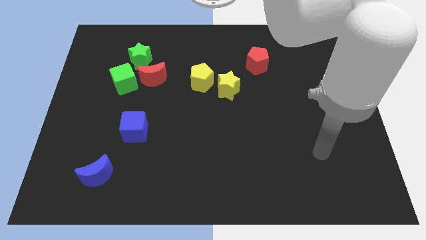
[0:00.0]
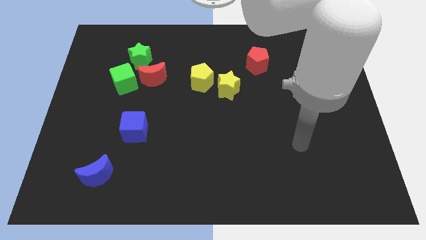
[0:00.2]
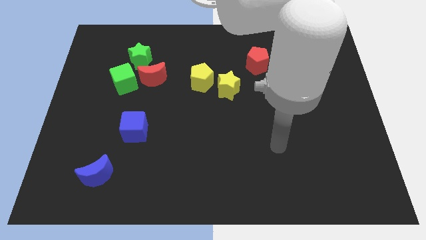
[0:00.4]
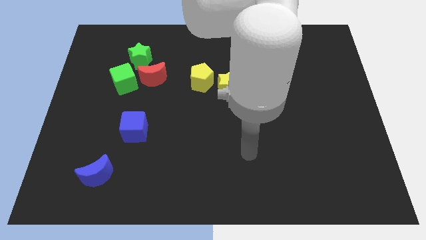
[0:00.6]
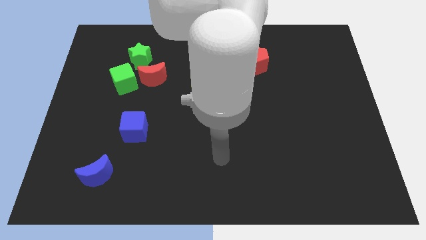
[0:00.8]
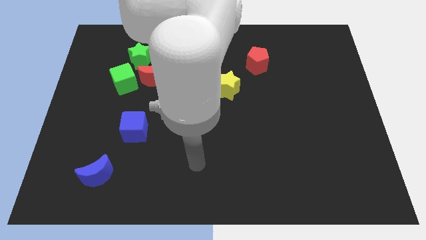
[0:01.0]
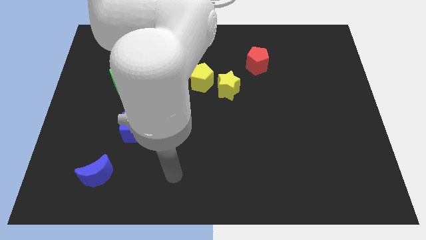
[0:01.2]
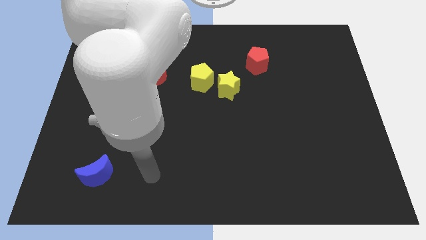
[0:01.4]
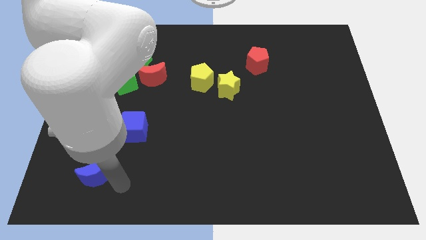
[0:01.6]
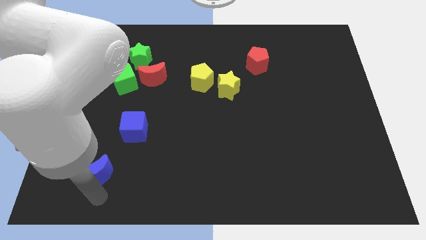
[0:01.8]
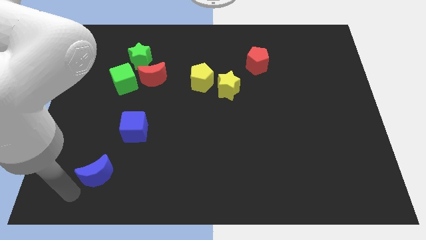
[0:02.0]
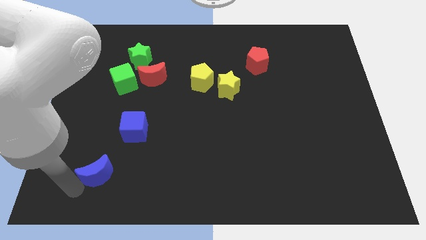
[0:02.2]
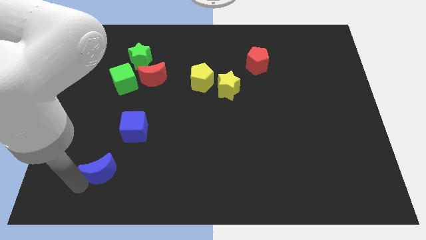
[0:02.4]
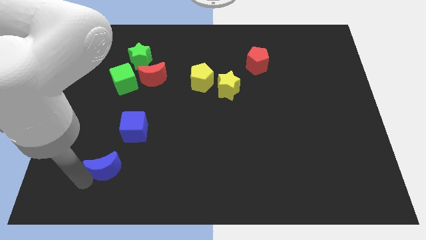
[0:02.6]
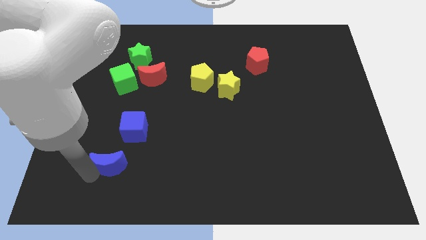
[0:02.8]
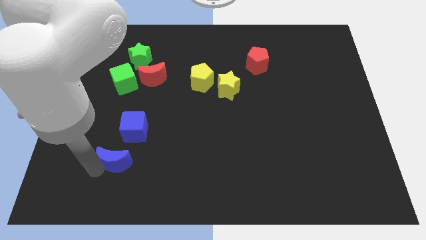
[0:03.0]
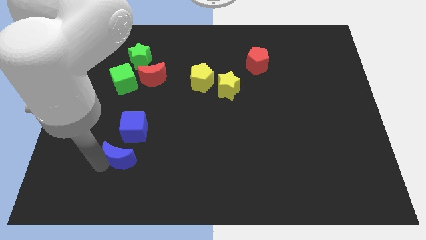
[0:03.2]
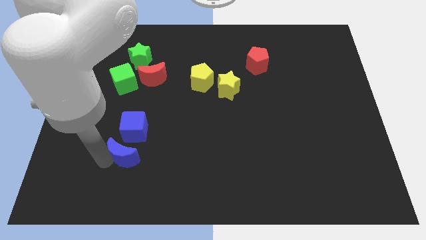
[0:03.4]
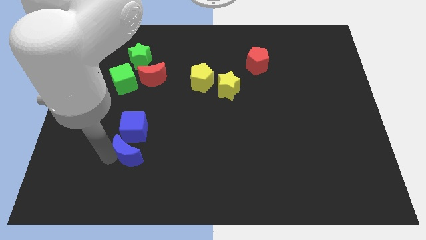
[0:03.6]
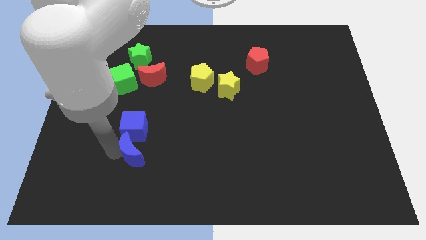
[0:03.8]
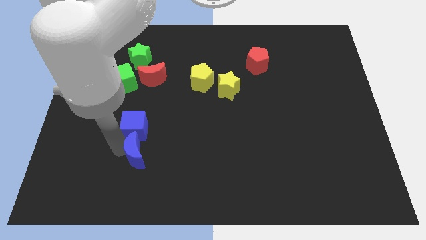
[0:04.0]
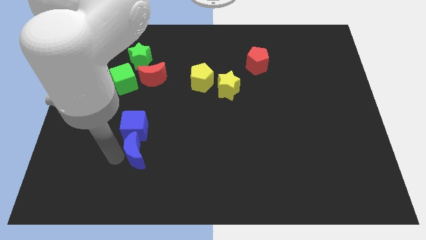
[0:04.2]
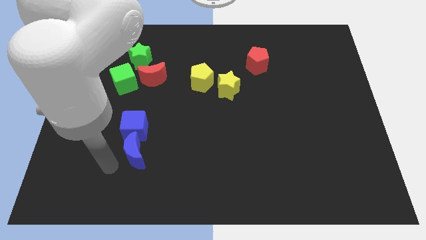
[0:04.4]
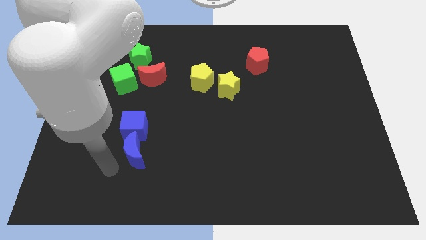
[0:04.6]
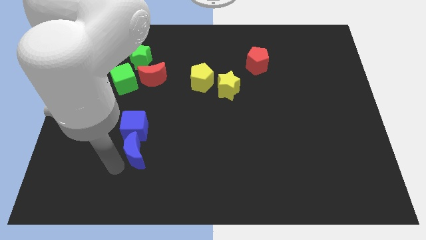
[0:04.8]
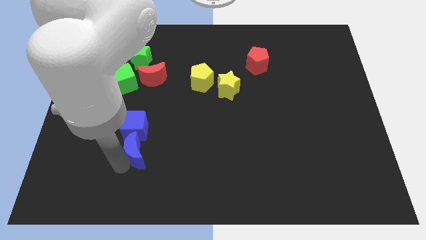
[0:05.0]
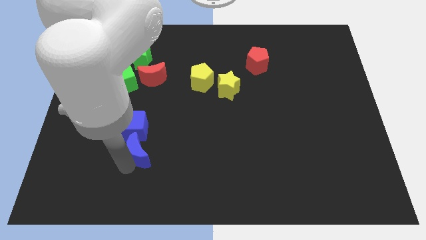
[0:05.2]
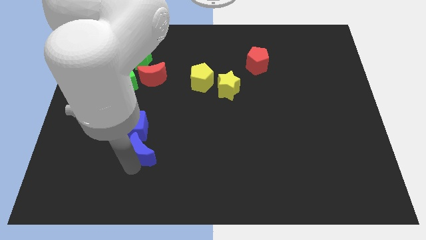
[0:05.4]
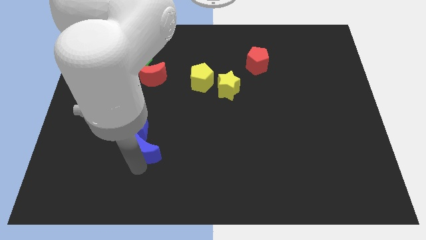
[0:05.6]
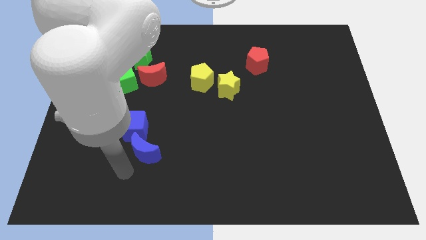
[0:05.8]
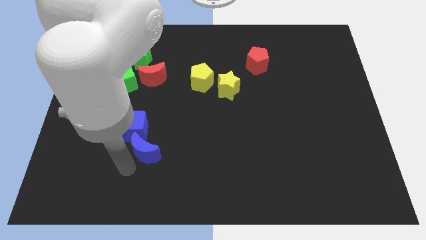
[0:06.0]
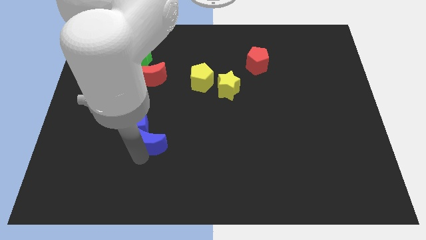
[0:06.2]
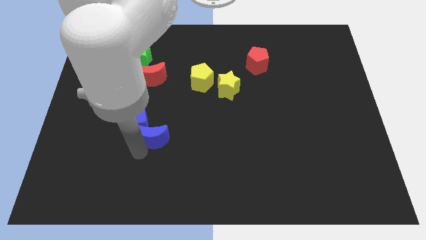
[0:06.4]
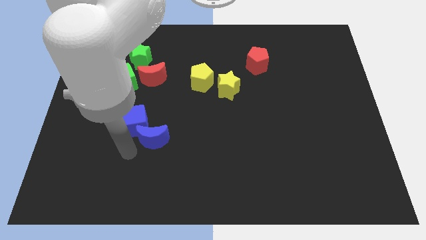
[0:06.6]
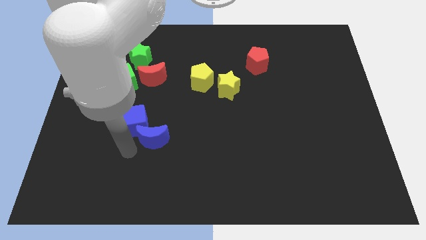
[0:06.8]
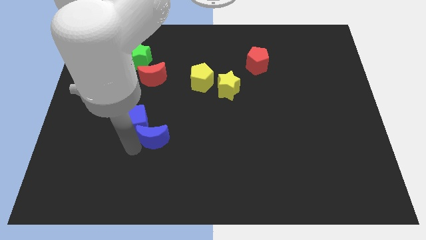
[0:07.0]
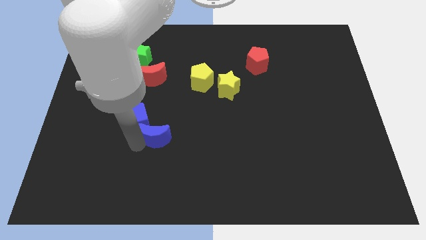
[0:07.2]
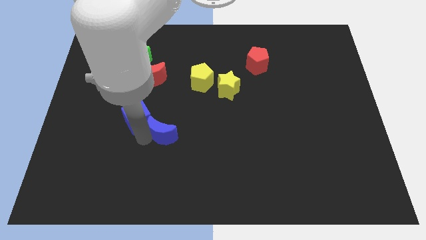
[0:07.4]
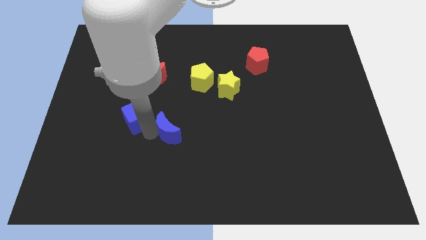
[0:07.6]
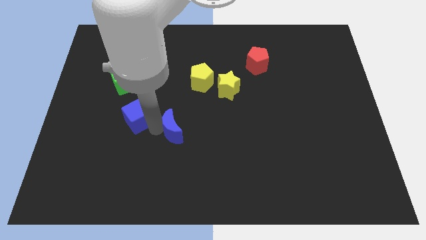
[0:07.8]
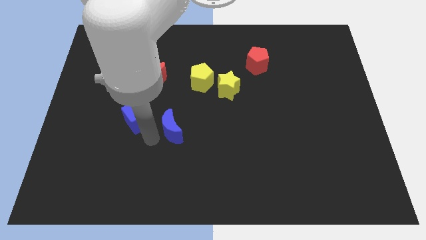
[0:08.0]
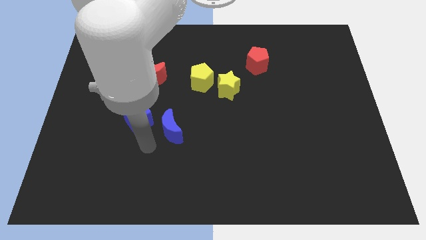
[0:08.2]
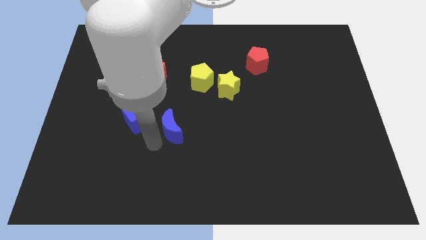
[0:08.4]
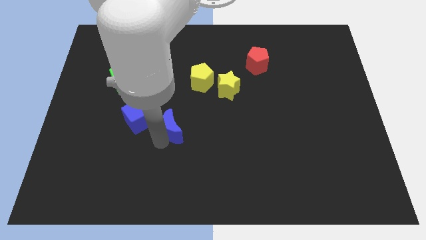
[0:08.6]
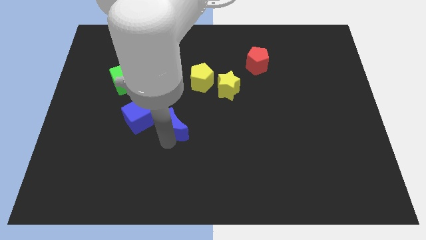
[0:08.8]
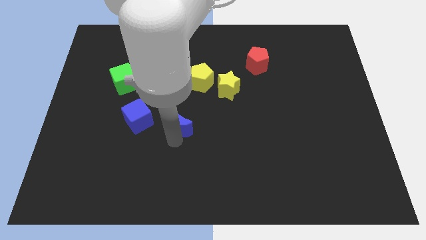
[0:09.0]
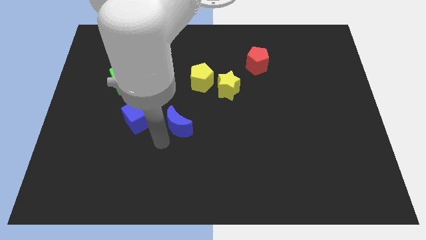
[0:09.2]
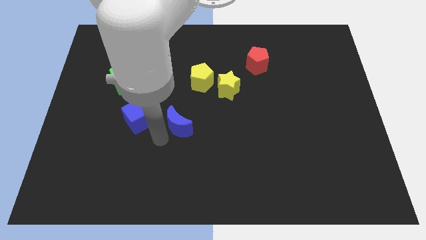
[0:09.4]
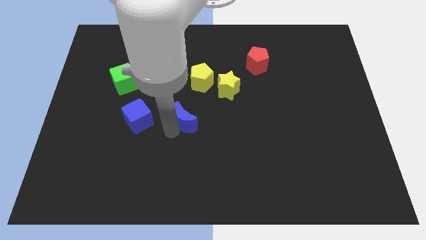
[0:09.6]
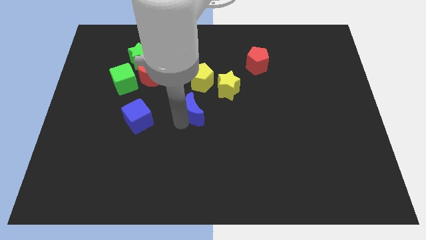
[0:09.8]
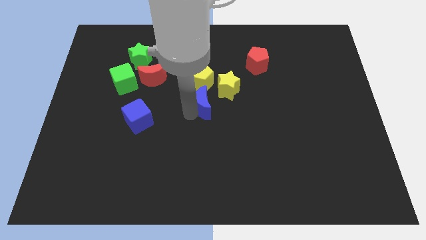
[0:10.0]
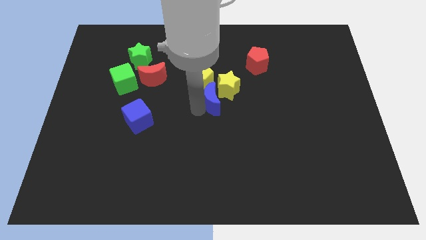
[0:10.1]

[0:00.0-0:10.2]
put the blue moon to the yellow star

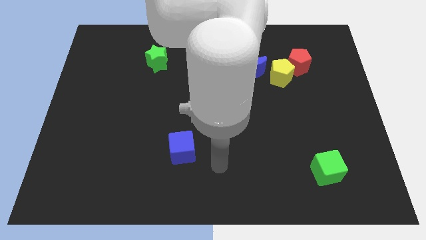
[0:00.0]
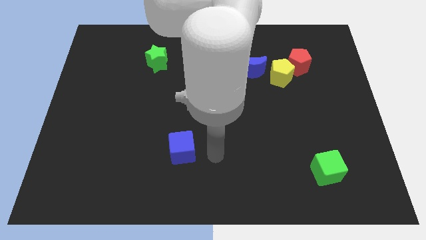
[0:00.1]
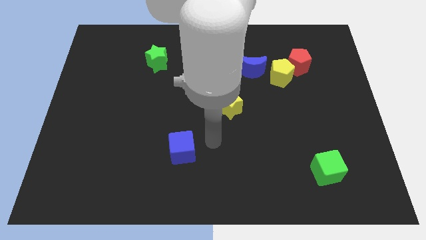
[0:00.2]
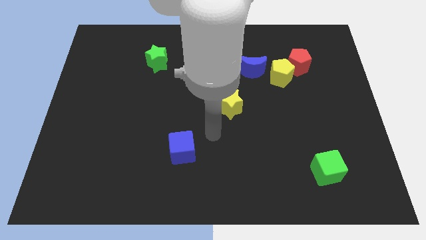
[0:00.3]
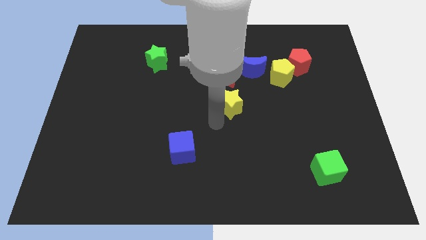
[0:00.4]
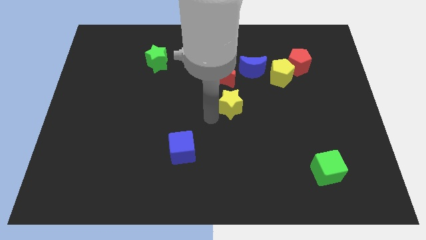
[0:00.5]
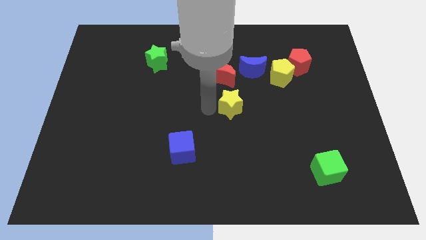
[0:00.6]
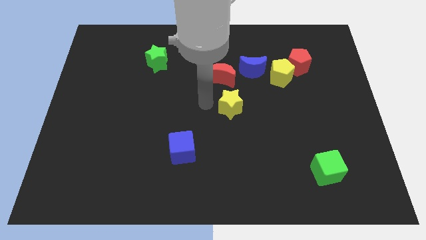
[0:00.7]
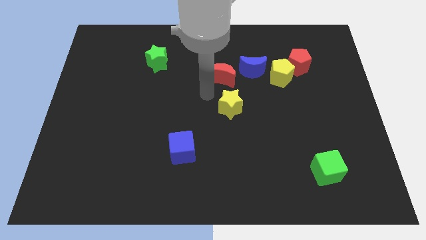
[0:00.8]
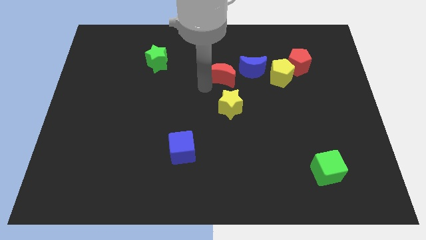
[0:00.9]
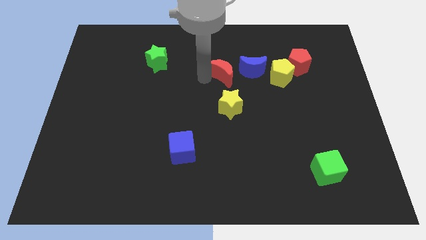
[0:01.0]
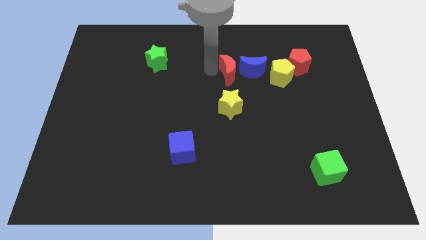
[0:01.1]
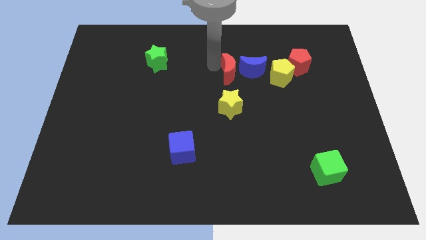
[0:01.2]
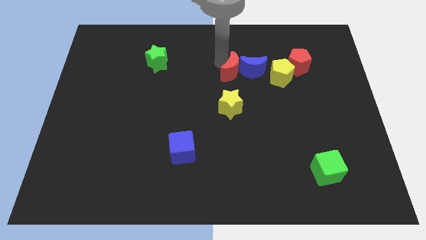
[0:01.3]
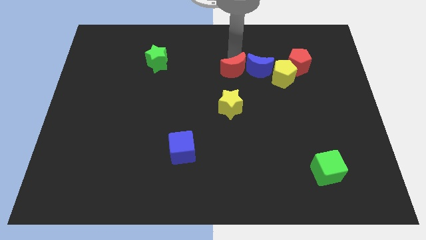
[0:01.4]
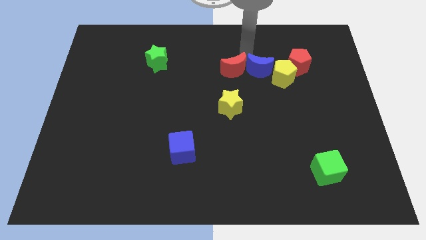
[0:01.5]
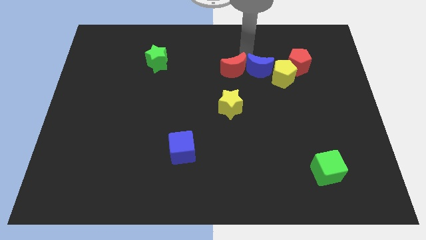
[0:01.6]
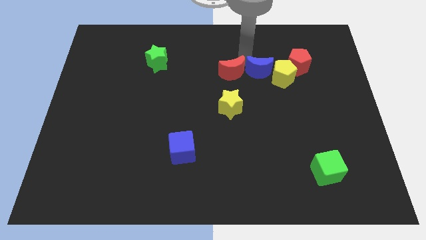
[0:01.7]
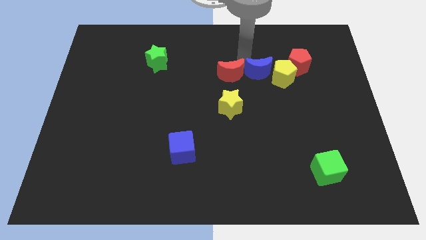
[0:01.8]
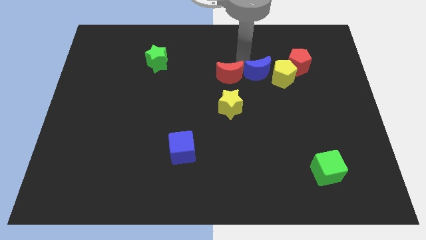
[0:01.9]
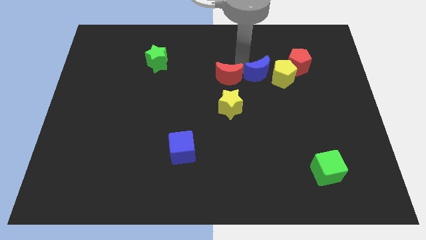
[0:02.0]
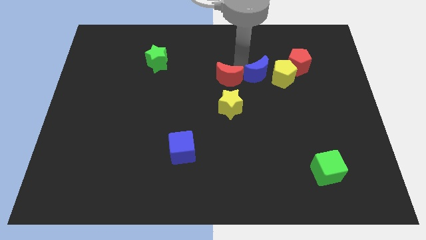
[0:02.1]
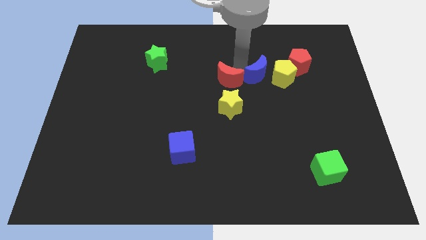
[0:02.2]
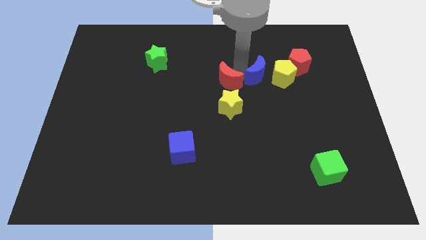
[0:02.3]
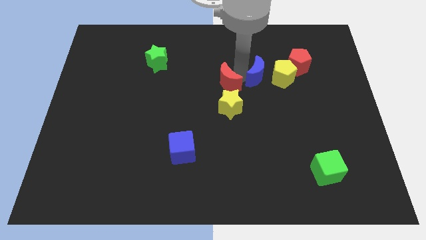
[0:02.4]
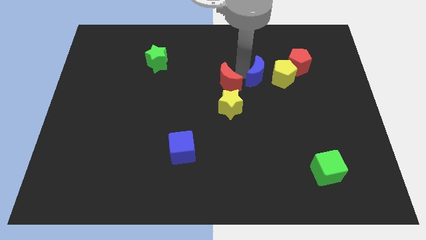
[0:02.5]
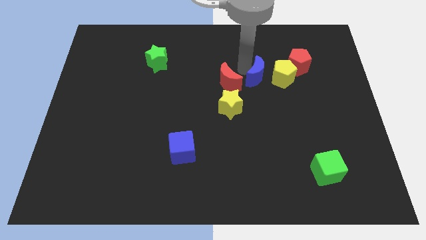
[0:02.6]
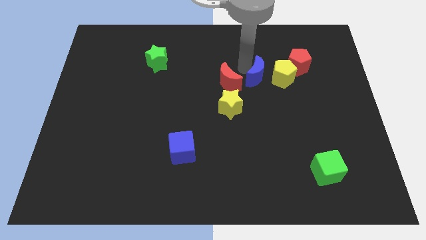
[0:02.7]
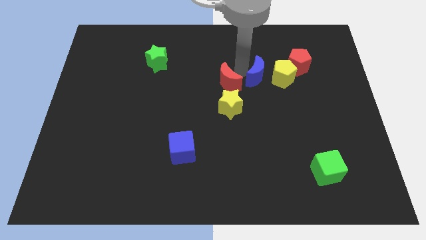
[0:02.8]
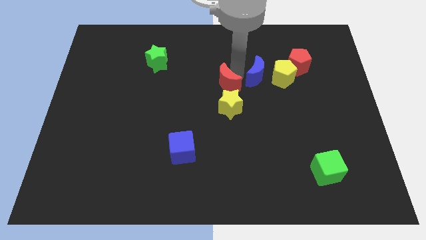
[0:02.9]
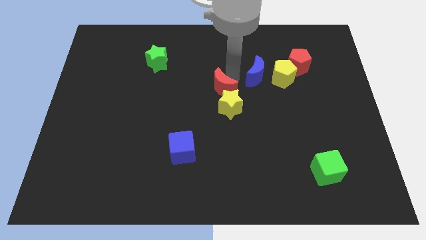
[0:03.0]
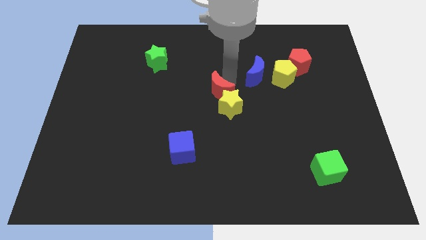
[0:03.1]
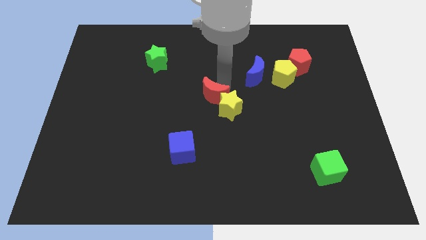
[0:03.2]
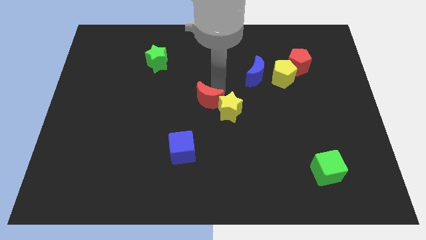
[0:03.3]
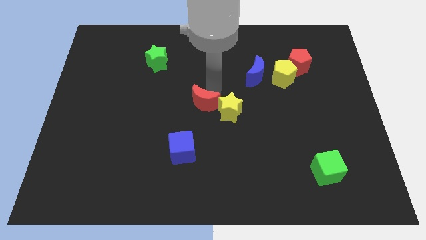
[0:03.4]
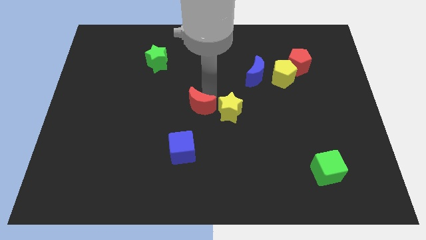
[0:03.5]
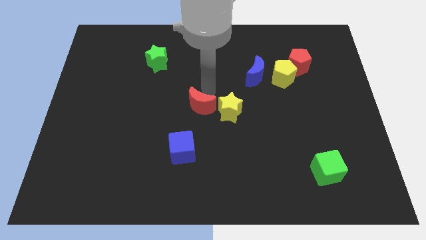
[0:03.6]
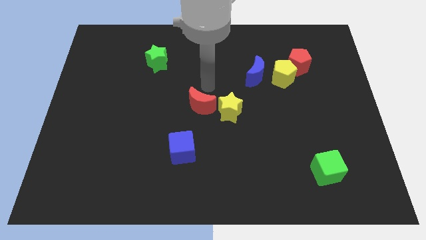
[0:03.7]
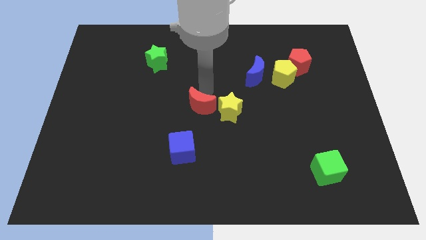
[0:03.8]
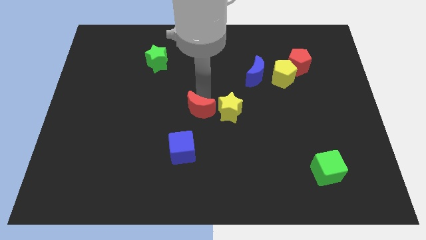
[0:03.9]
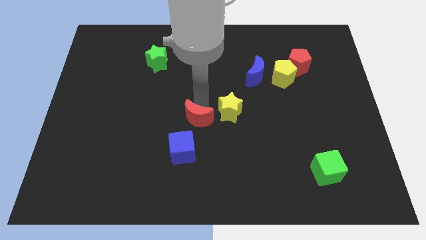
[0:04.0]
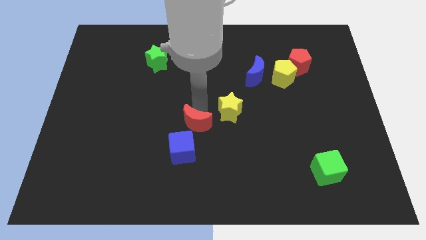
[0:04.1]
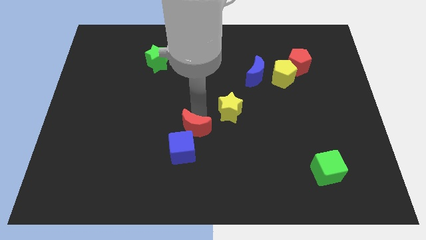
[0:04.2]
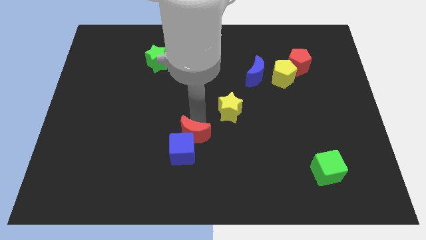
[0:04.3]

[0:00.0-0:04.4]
put the red moon next to the blue cube
